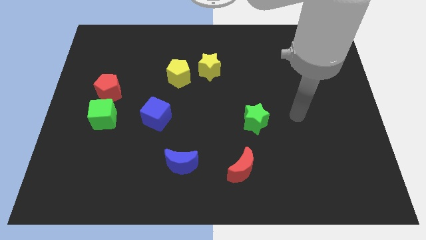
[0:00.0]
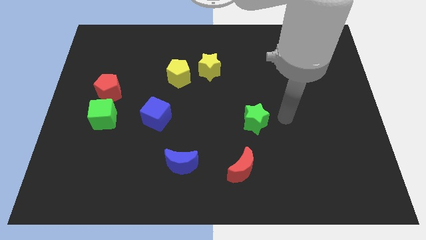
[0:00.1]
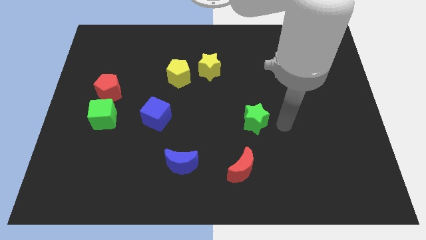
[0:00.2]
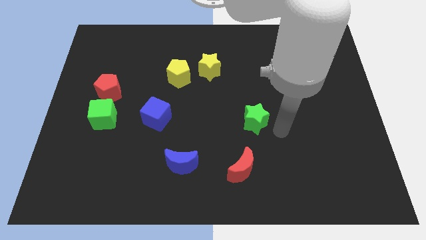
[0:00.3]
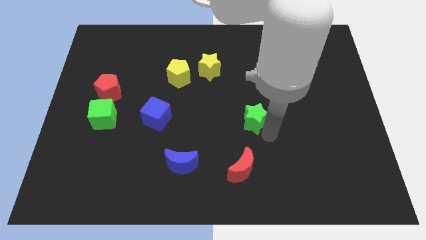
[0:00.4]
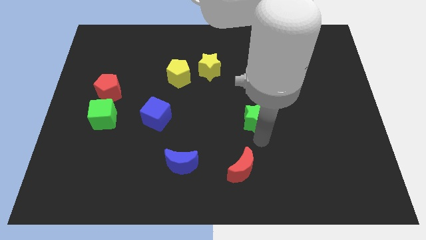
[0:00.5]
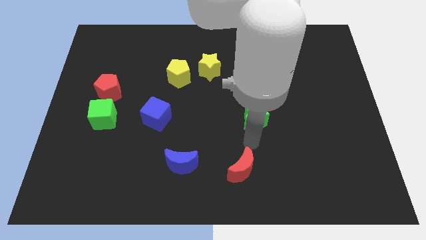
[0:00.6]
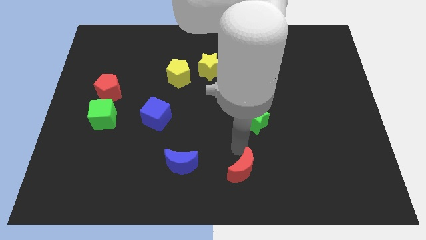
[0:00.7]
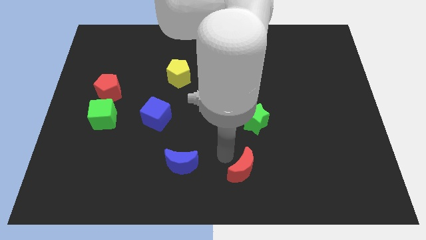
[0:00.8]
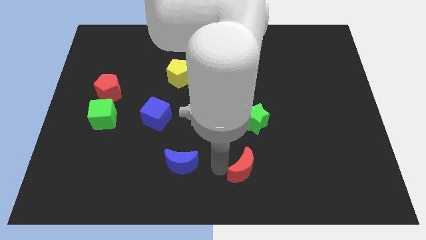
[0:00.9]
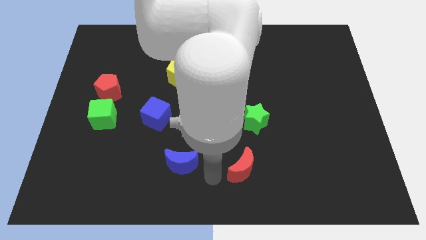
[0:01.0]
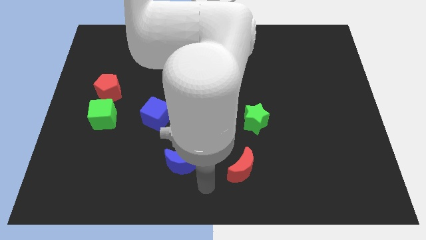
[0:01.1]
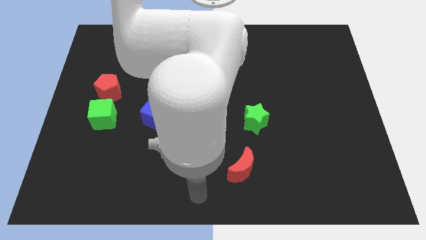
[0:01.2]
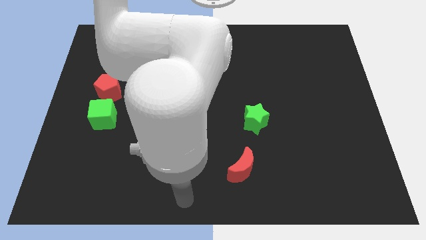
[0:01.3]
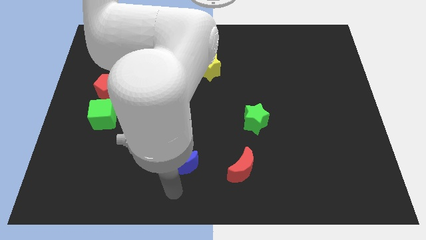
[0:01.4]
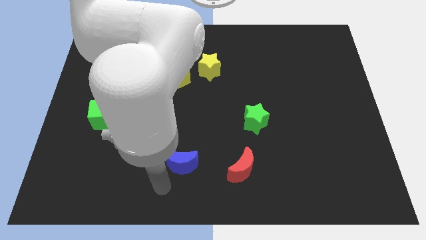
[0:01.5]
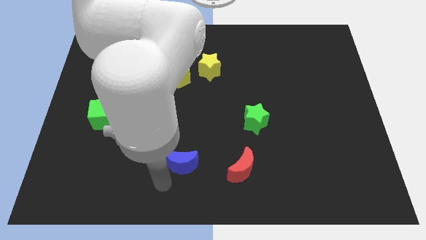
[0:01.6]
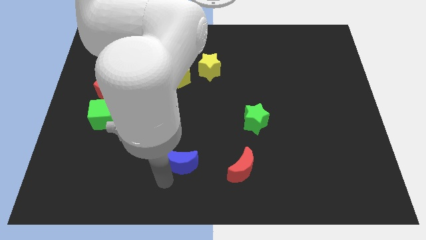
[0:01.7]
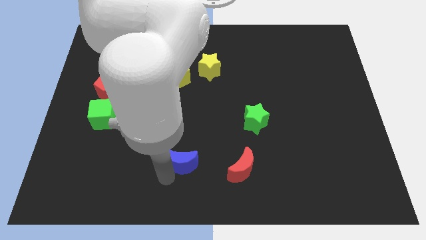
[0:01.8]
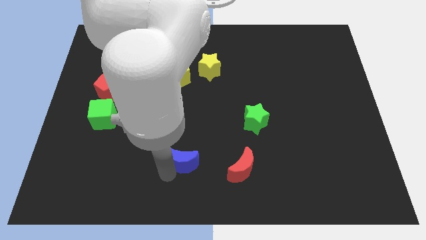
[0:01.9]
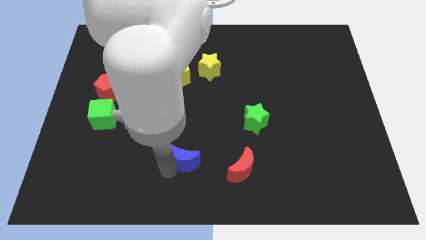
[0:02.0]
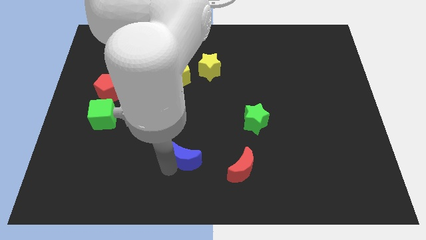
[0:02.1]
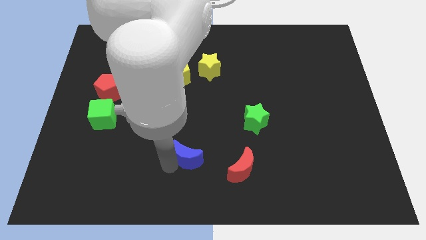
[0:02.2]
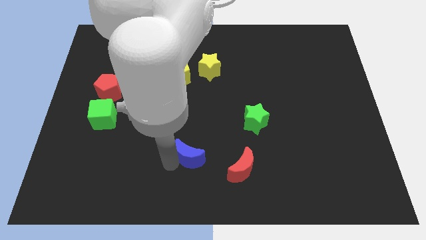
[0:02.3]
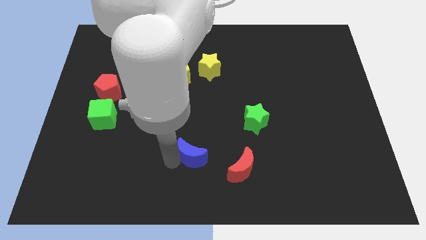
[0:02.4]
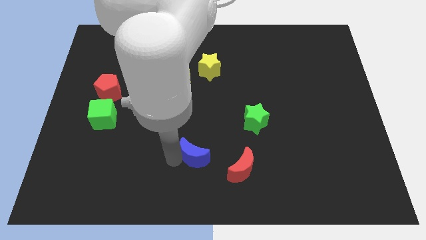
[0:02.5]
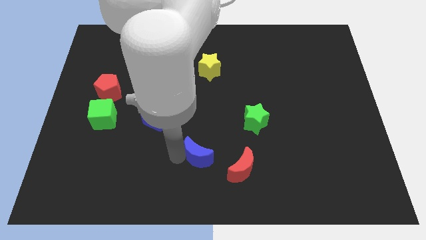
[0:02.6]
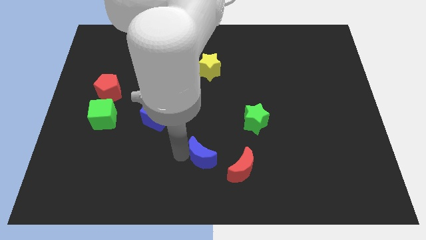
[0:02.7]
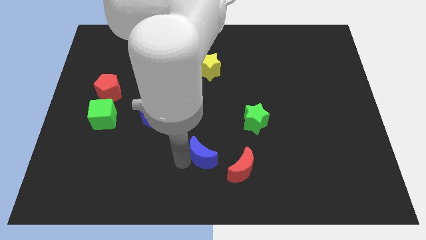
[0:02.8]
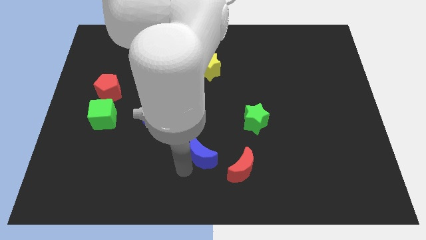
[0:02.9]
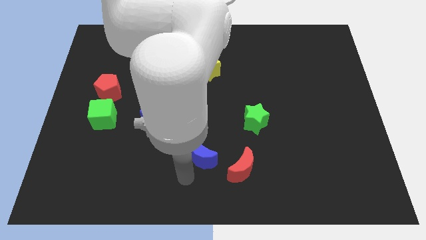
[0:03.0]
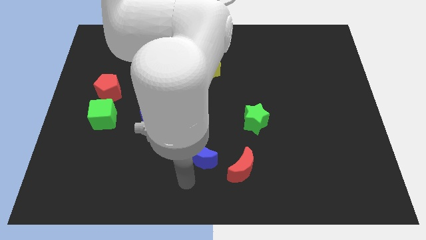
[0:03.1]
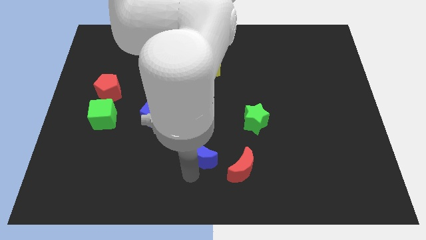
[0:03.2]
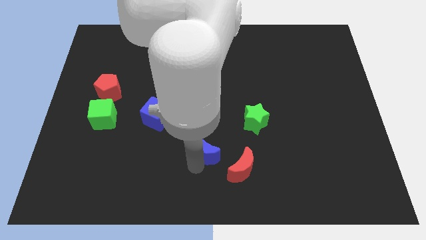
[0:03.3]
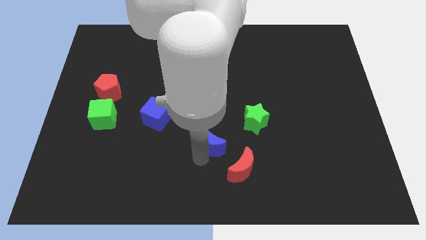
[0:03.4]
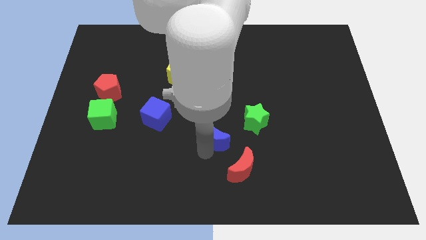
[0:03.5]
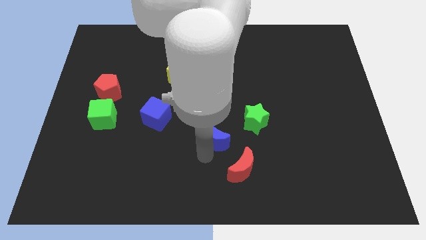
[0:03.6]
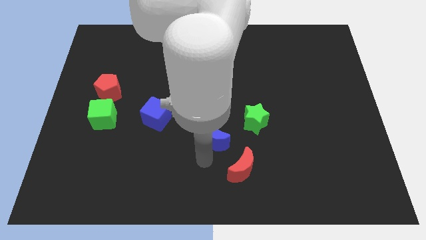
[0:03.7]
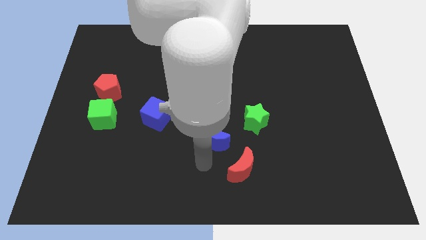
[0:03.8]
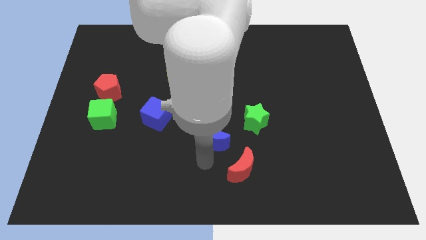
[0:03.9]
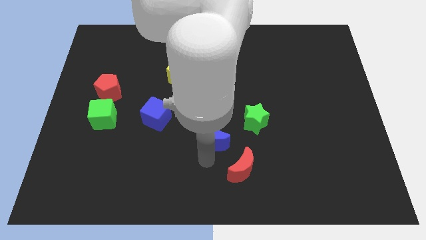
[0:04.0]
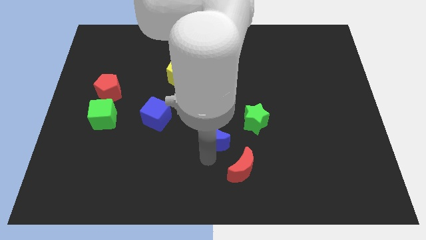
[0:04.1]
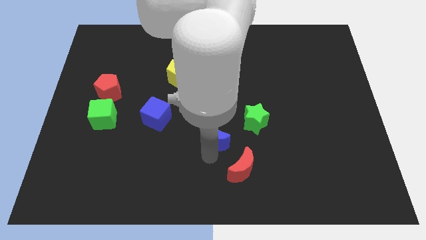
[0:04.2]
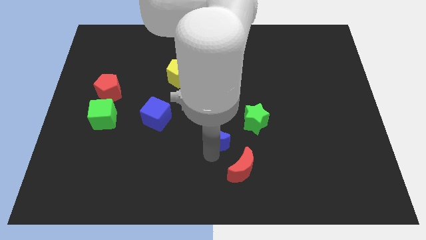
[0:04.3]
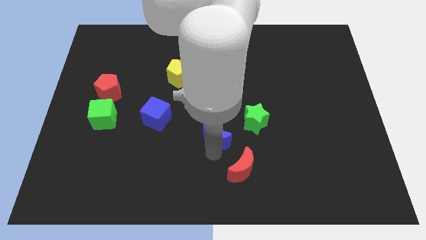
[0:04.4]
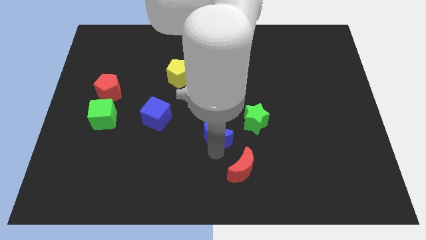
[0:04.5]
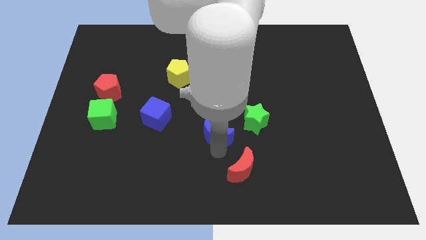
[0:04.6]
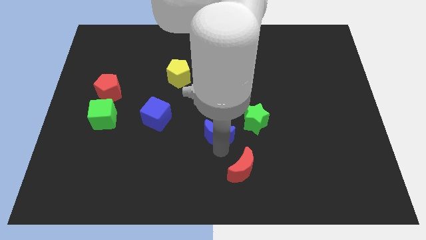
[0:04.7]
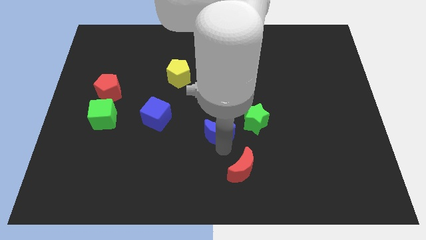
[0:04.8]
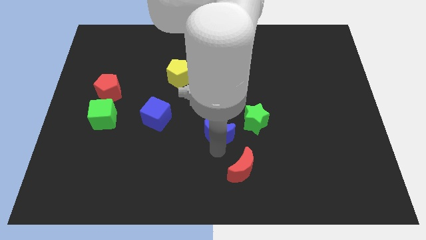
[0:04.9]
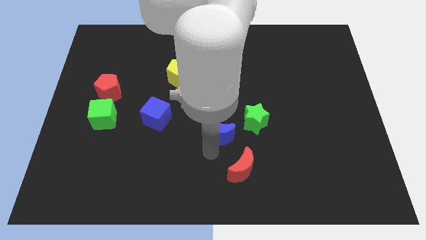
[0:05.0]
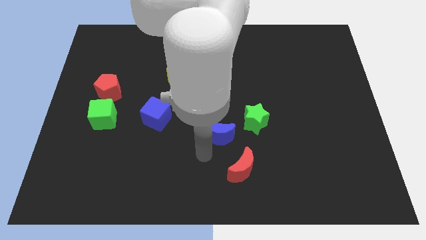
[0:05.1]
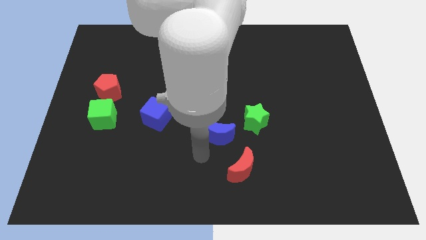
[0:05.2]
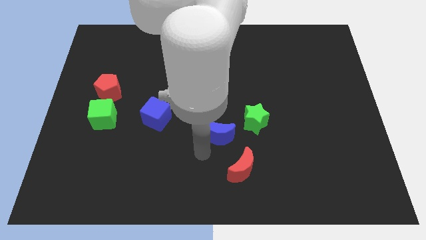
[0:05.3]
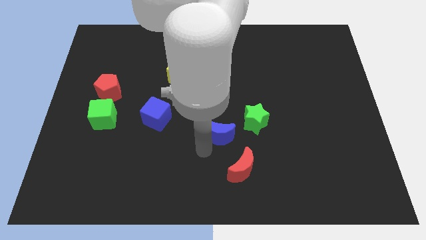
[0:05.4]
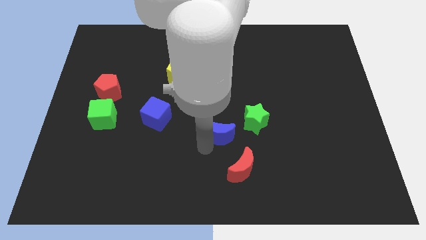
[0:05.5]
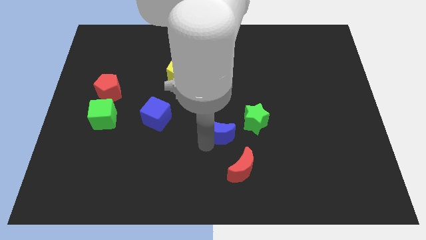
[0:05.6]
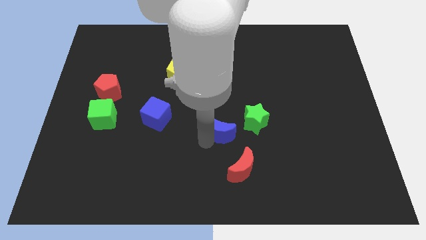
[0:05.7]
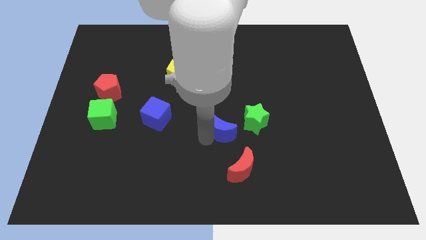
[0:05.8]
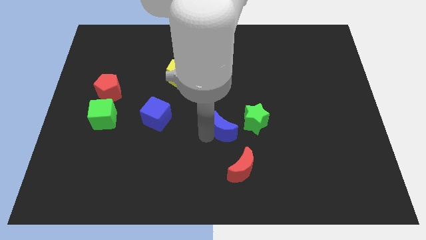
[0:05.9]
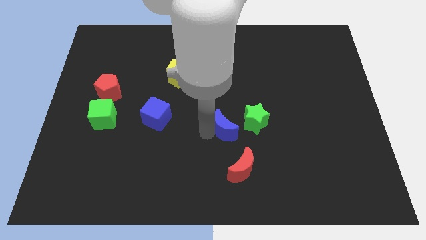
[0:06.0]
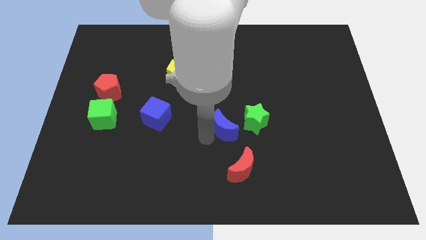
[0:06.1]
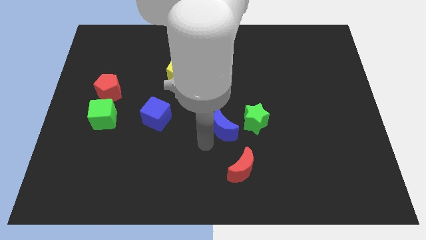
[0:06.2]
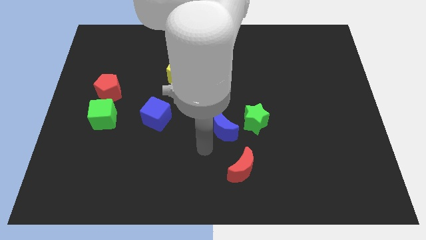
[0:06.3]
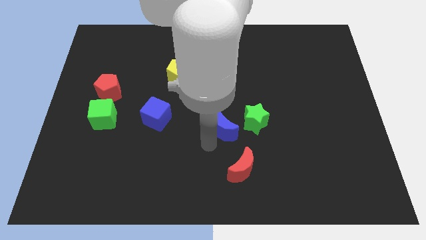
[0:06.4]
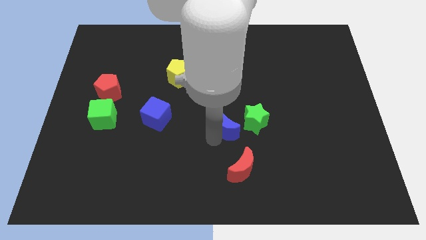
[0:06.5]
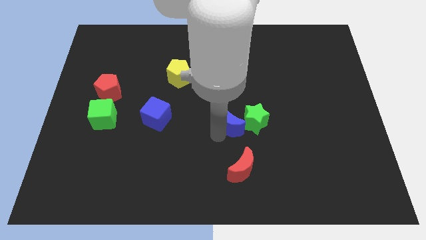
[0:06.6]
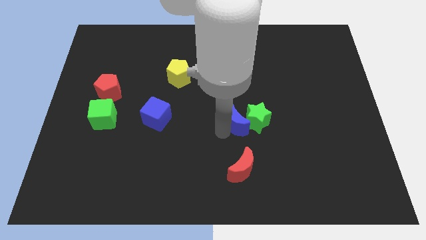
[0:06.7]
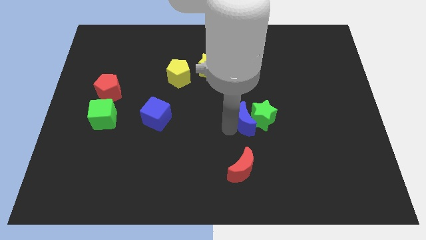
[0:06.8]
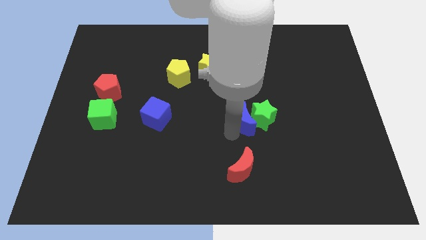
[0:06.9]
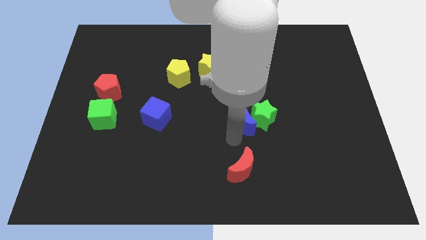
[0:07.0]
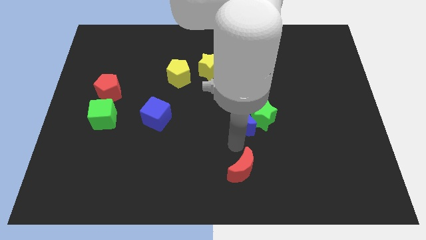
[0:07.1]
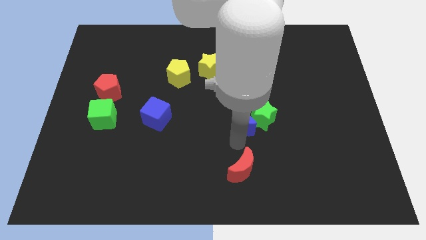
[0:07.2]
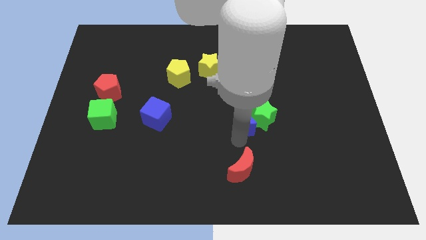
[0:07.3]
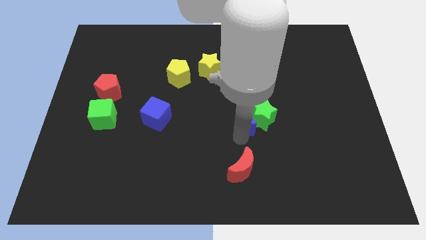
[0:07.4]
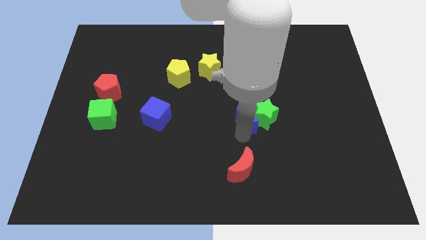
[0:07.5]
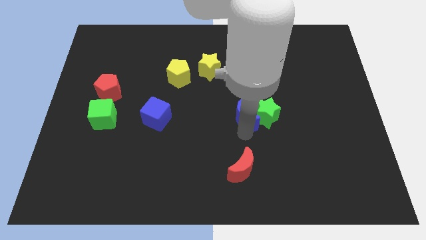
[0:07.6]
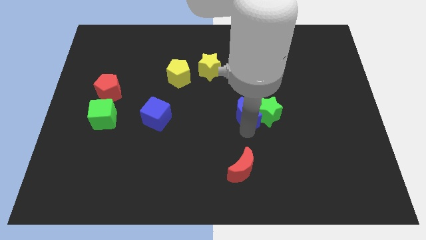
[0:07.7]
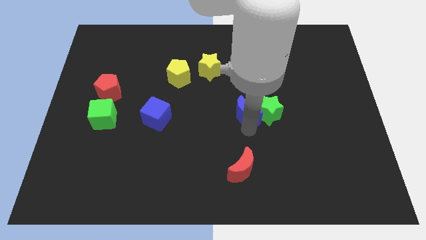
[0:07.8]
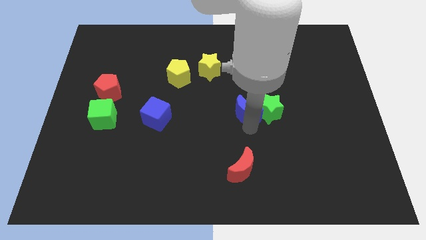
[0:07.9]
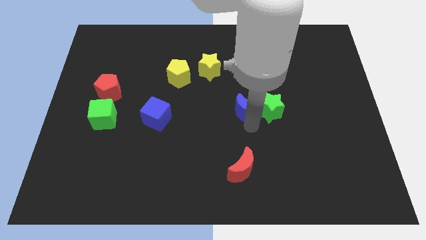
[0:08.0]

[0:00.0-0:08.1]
slide the blue moon upwards and right diagonally
